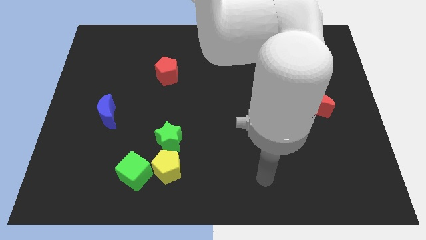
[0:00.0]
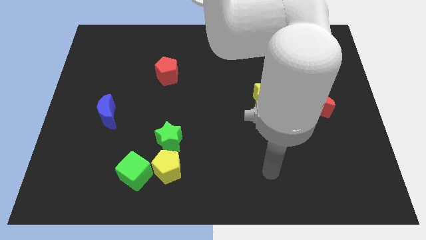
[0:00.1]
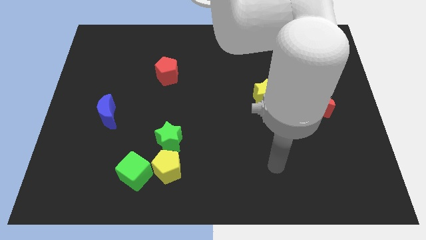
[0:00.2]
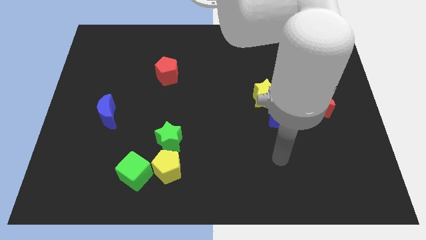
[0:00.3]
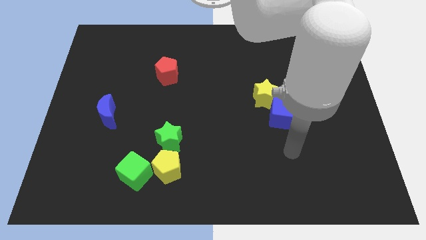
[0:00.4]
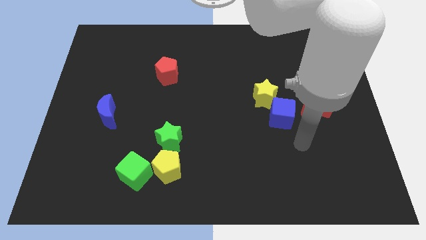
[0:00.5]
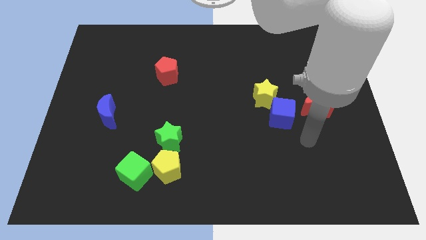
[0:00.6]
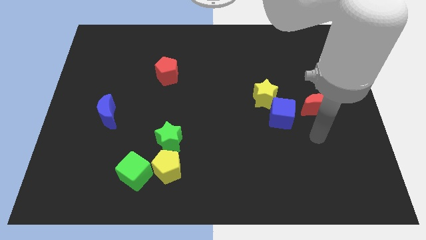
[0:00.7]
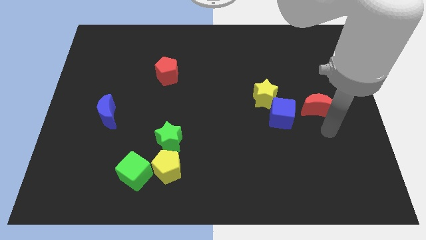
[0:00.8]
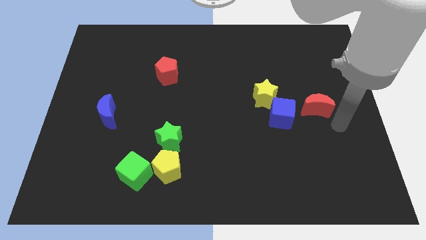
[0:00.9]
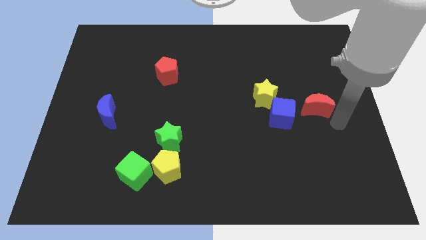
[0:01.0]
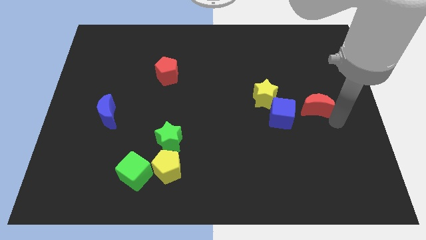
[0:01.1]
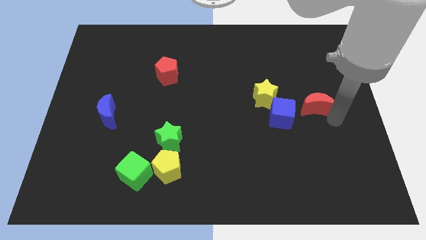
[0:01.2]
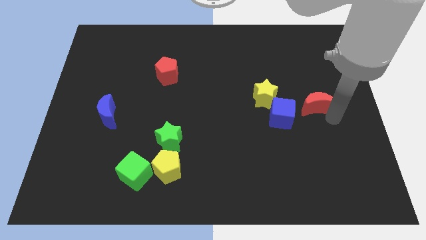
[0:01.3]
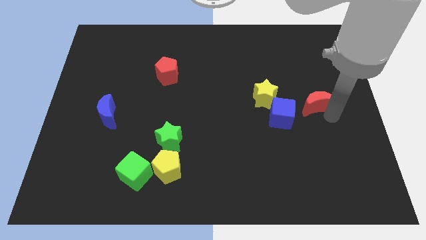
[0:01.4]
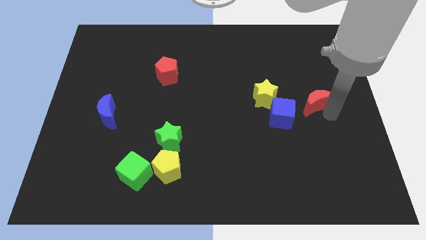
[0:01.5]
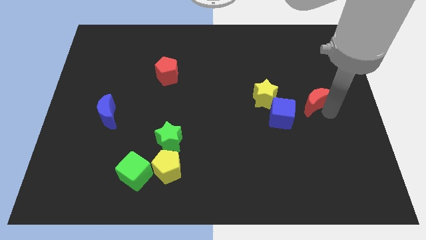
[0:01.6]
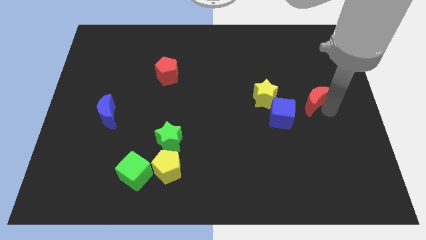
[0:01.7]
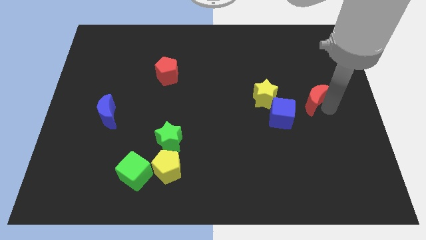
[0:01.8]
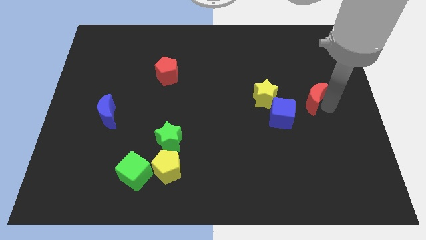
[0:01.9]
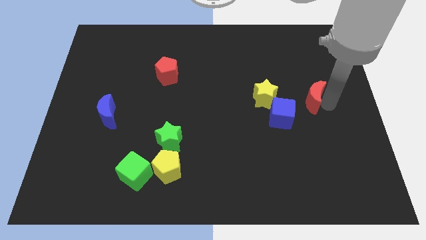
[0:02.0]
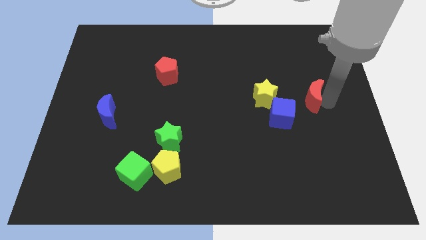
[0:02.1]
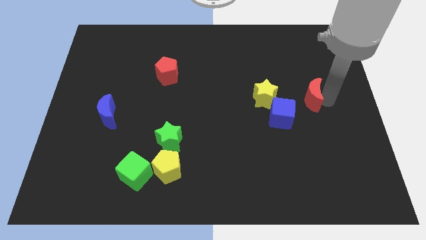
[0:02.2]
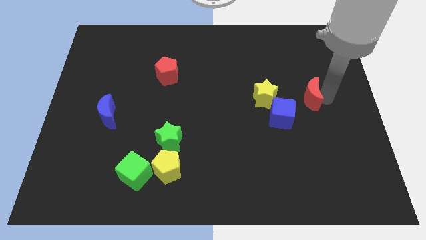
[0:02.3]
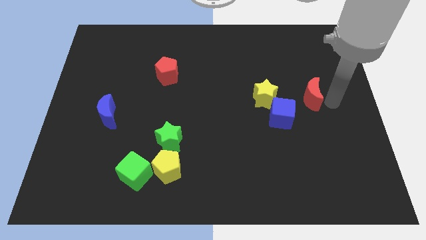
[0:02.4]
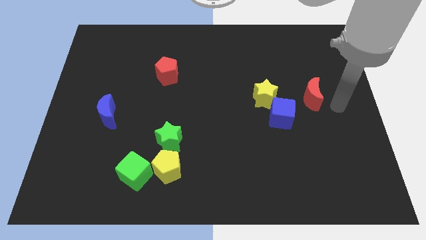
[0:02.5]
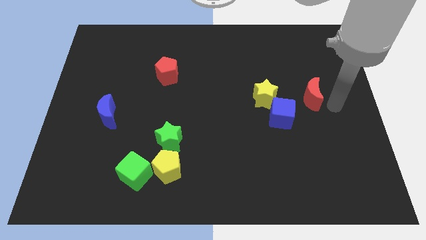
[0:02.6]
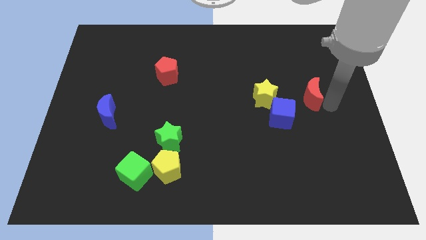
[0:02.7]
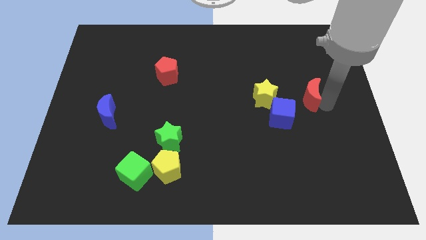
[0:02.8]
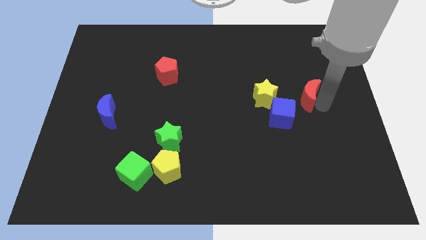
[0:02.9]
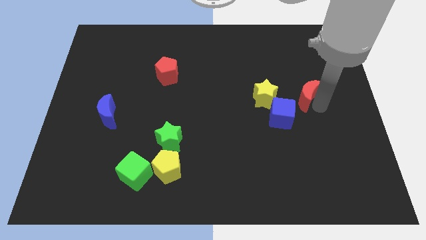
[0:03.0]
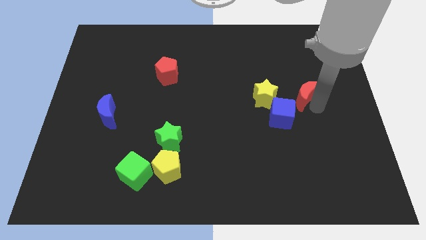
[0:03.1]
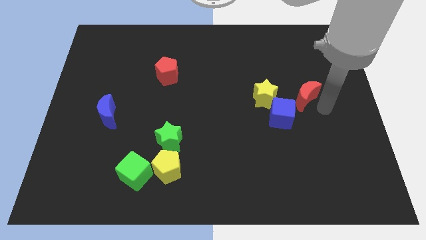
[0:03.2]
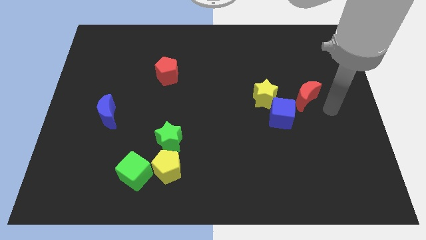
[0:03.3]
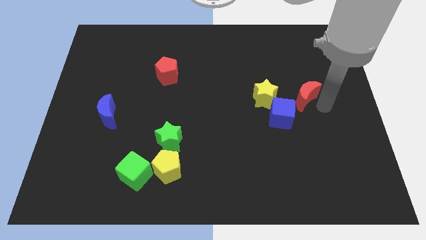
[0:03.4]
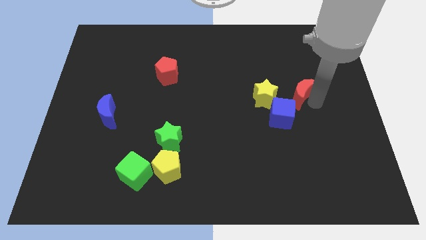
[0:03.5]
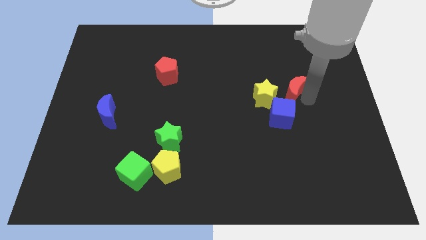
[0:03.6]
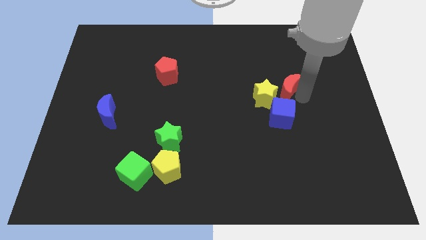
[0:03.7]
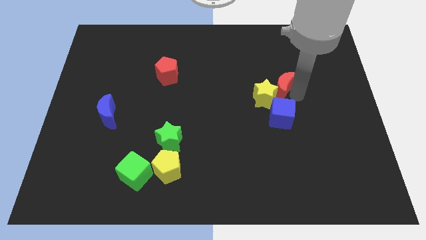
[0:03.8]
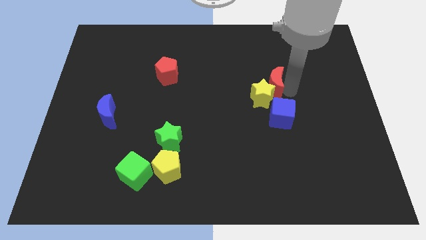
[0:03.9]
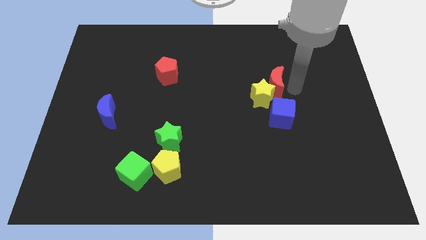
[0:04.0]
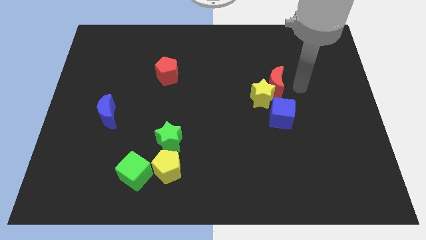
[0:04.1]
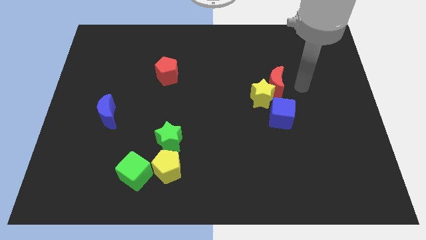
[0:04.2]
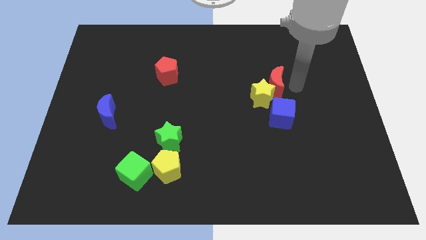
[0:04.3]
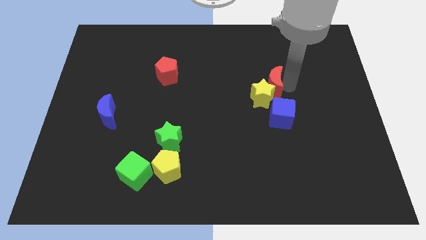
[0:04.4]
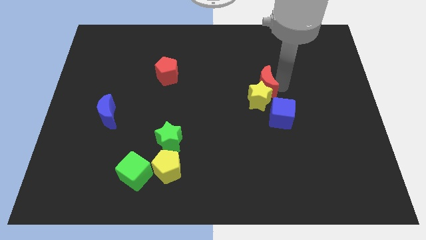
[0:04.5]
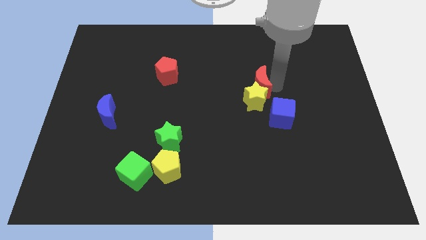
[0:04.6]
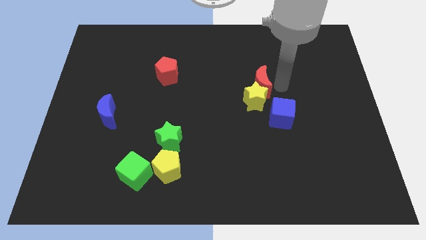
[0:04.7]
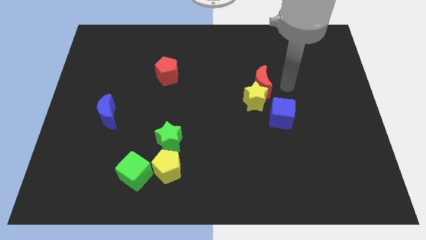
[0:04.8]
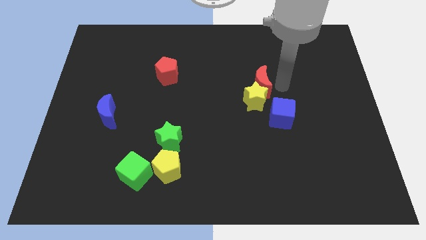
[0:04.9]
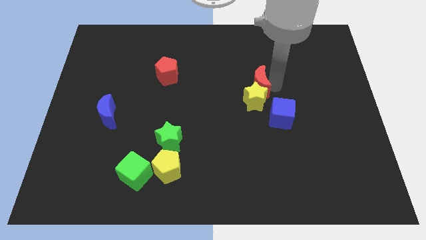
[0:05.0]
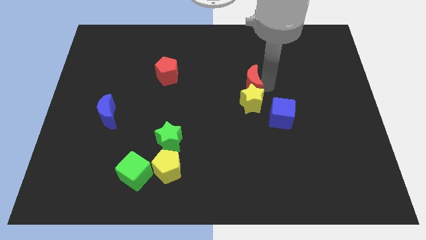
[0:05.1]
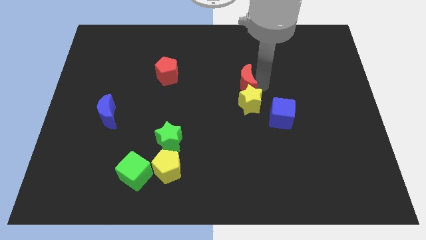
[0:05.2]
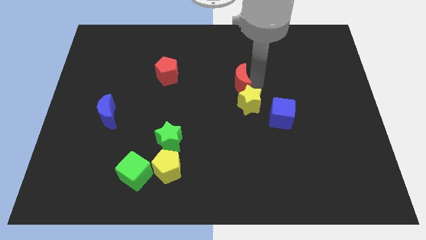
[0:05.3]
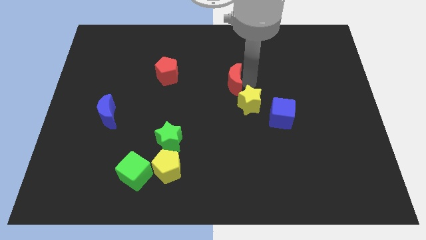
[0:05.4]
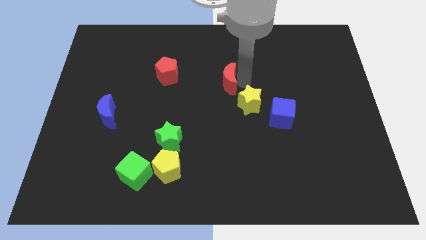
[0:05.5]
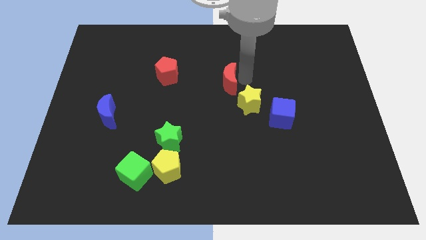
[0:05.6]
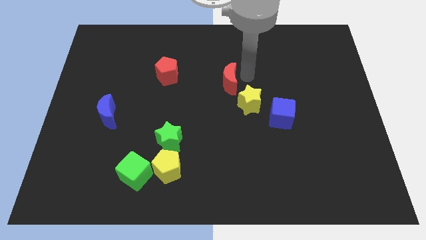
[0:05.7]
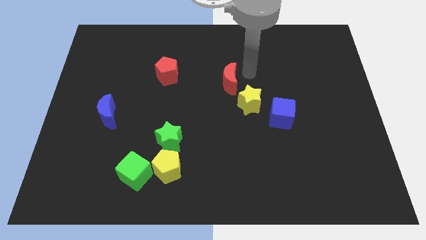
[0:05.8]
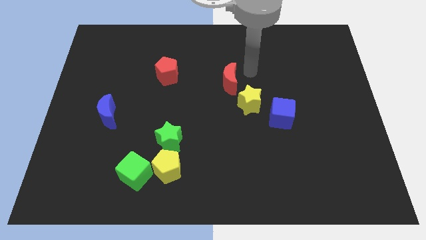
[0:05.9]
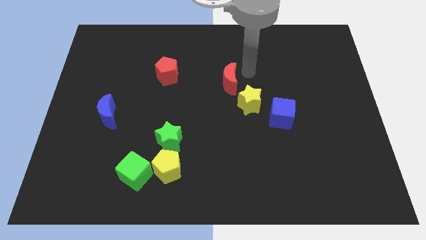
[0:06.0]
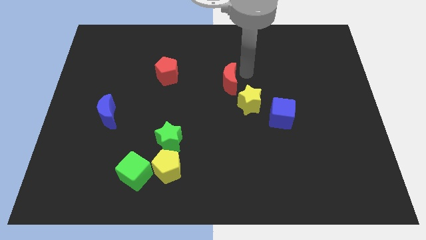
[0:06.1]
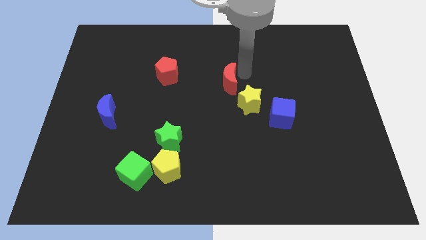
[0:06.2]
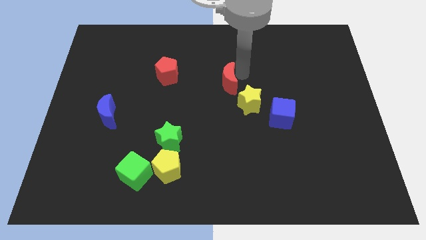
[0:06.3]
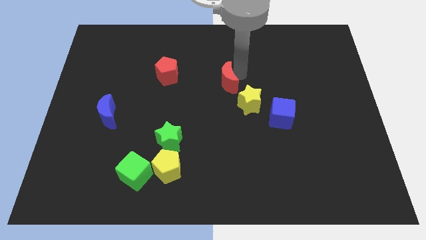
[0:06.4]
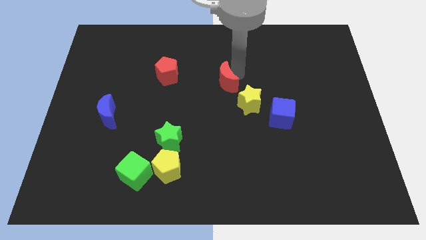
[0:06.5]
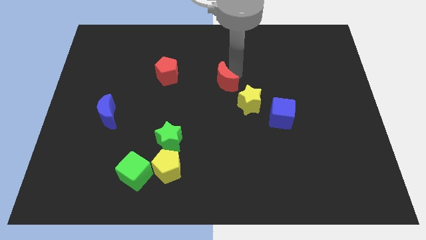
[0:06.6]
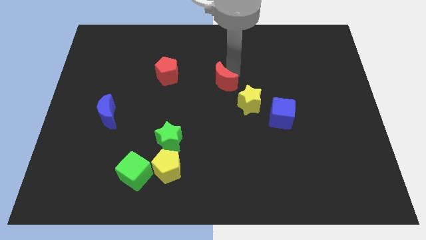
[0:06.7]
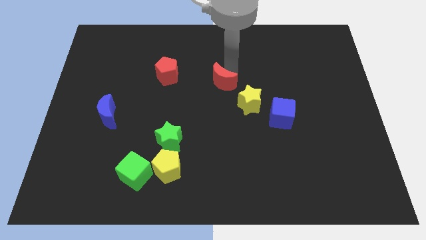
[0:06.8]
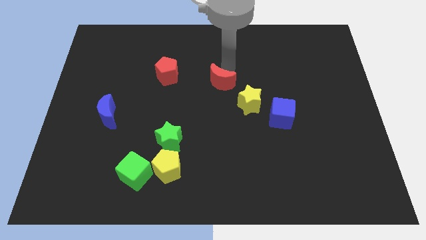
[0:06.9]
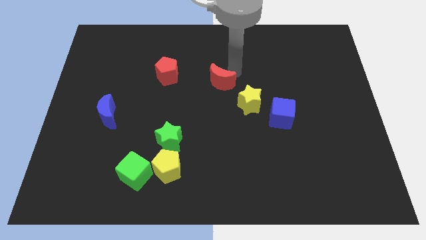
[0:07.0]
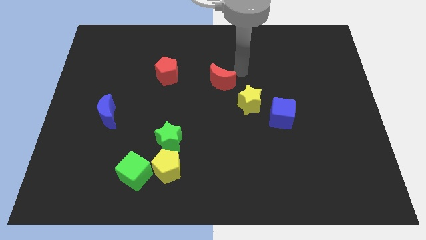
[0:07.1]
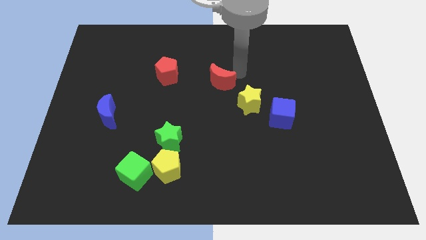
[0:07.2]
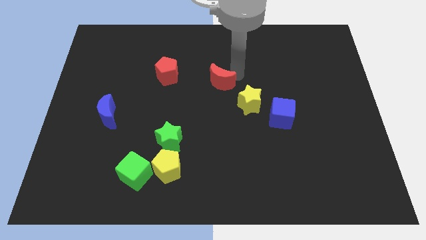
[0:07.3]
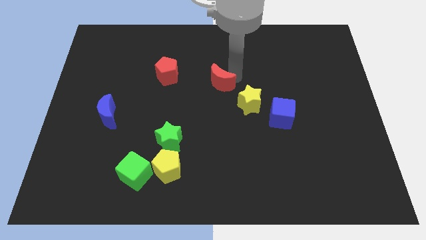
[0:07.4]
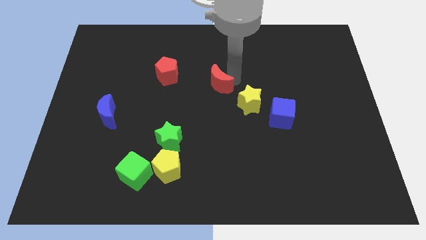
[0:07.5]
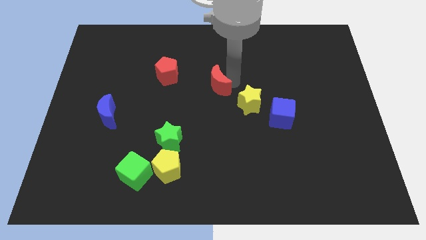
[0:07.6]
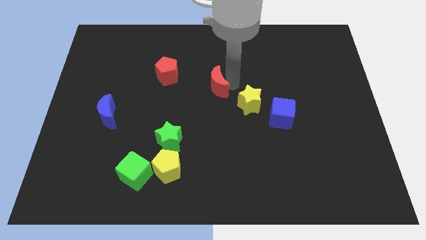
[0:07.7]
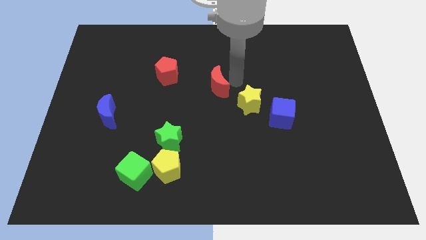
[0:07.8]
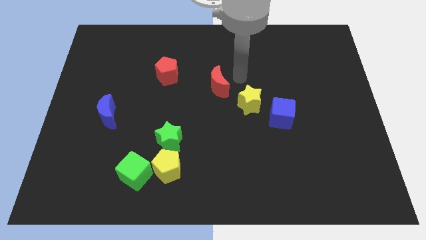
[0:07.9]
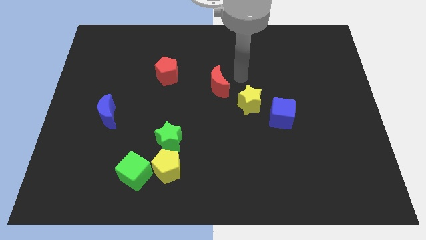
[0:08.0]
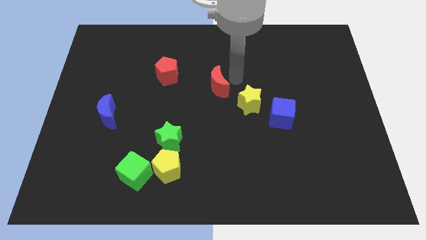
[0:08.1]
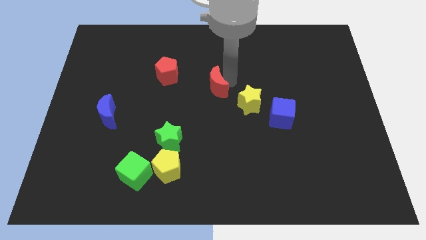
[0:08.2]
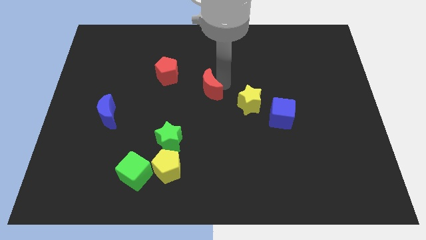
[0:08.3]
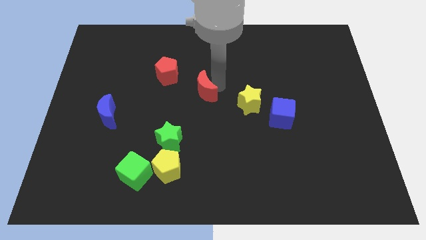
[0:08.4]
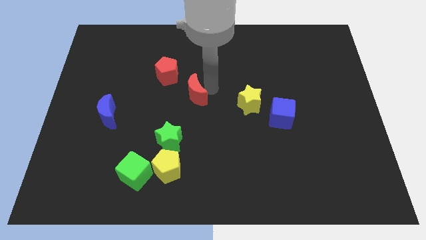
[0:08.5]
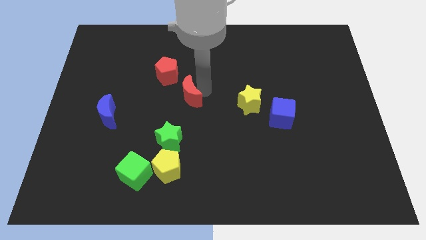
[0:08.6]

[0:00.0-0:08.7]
move the red moon to the top side of the green star
